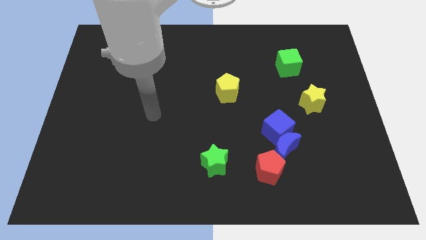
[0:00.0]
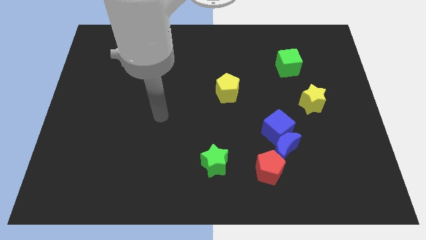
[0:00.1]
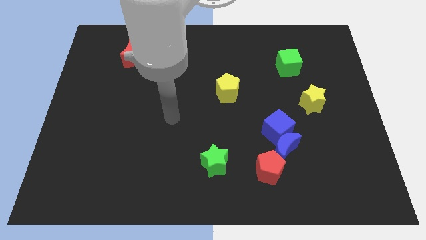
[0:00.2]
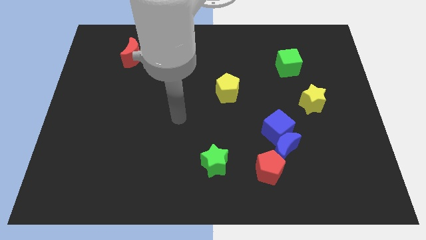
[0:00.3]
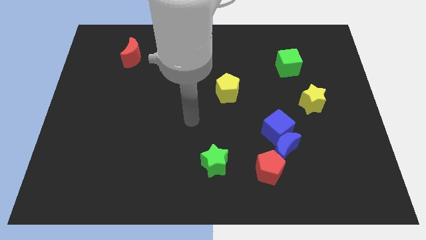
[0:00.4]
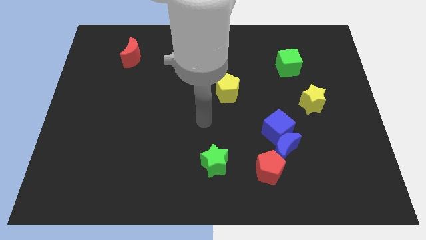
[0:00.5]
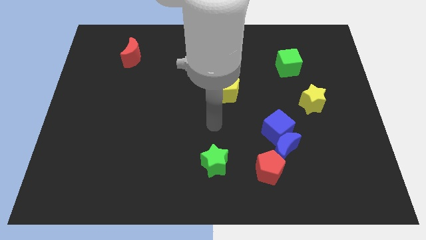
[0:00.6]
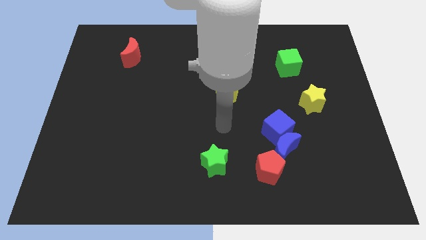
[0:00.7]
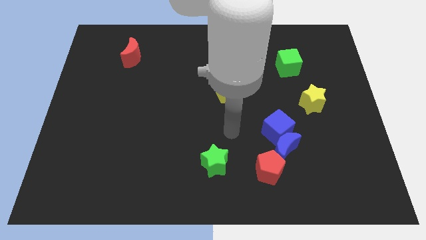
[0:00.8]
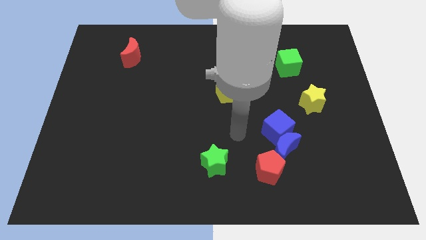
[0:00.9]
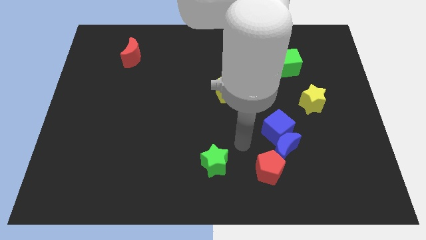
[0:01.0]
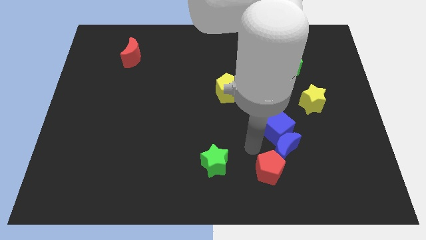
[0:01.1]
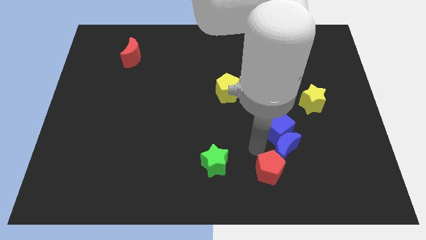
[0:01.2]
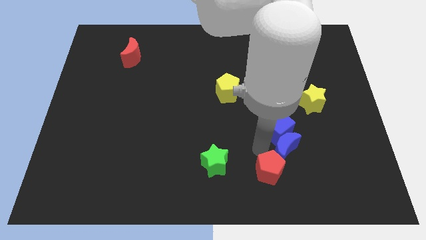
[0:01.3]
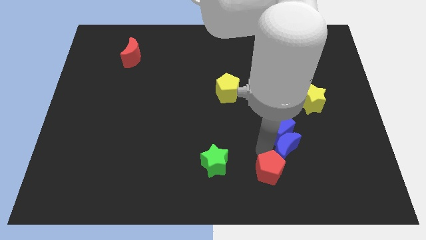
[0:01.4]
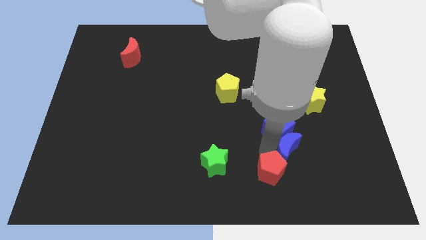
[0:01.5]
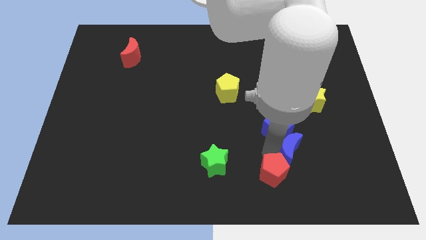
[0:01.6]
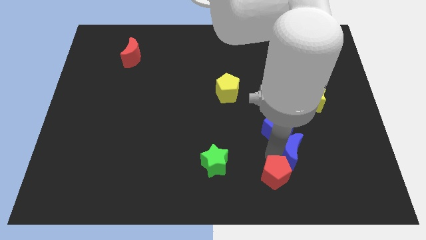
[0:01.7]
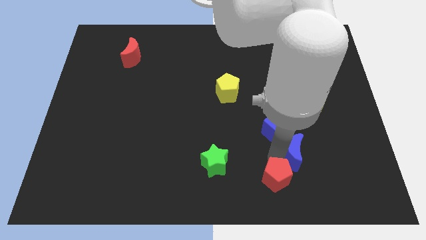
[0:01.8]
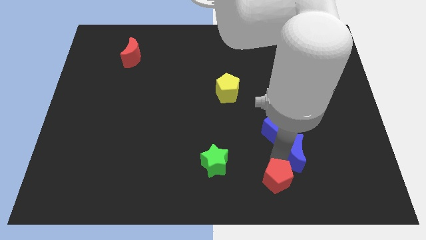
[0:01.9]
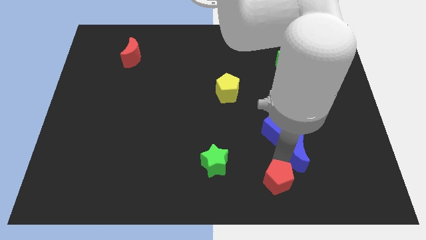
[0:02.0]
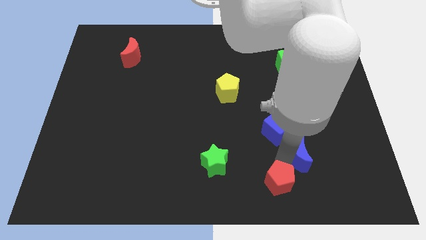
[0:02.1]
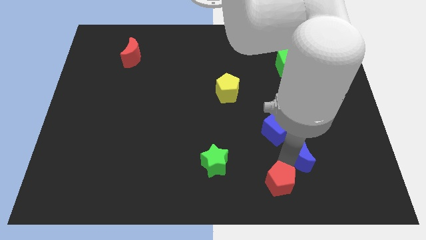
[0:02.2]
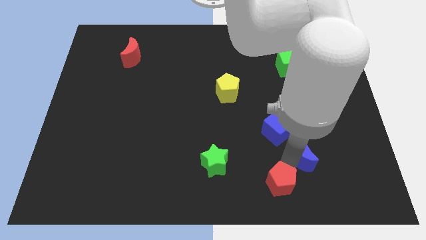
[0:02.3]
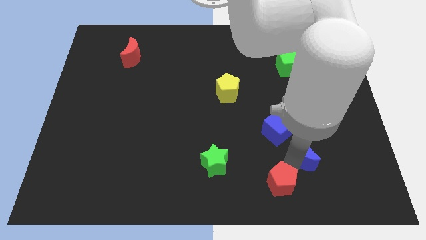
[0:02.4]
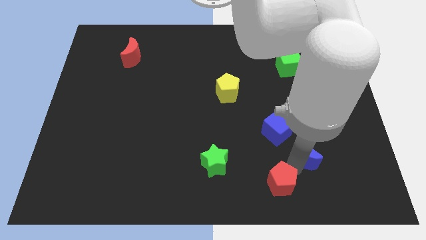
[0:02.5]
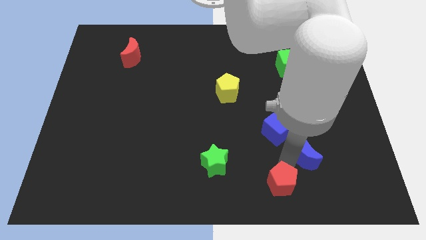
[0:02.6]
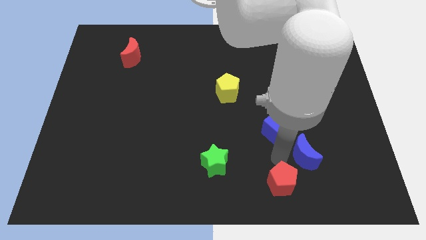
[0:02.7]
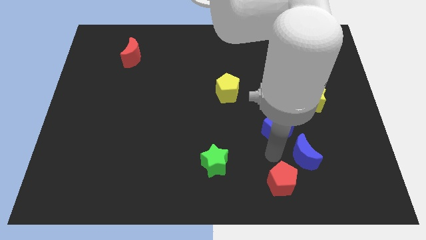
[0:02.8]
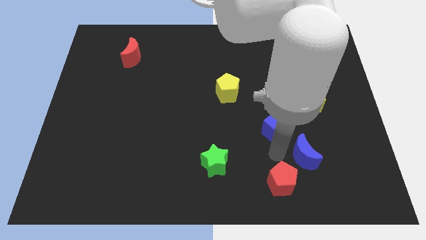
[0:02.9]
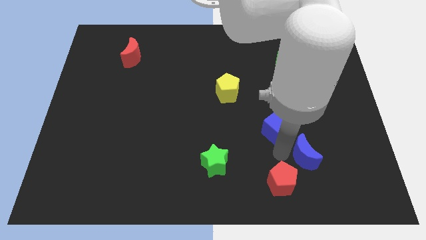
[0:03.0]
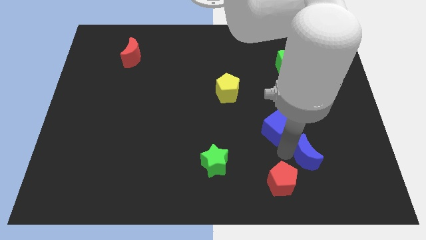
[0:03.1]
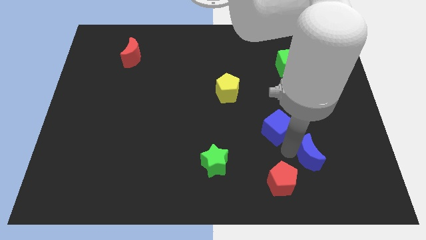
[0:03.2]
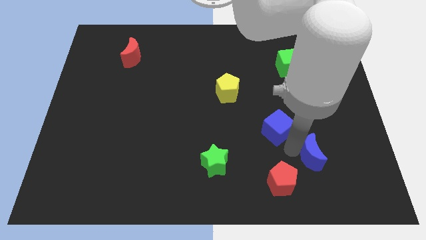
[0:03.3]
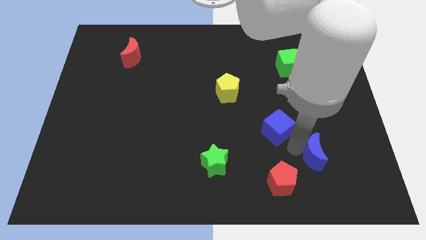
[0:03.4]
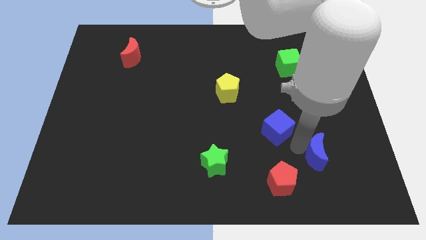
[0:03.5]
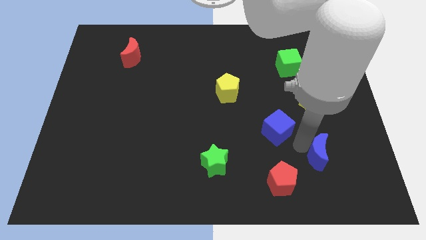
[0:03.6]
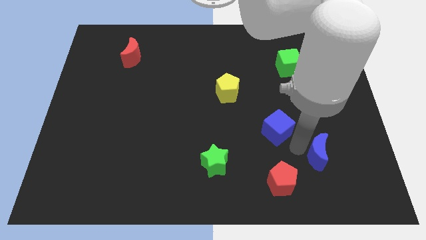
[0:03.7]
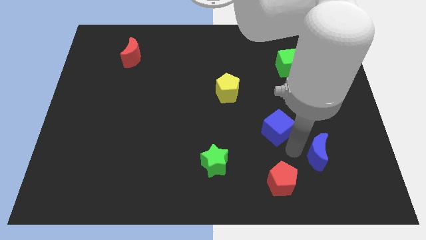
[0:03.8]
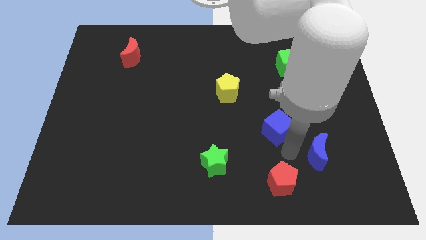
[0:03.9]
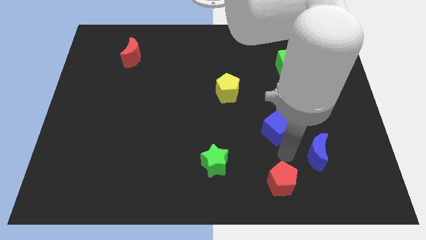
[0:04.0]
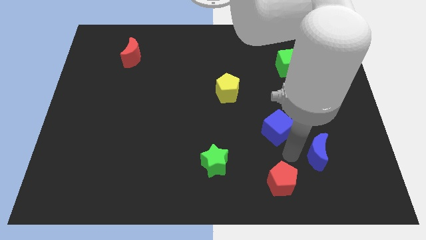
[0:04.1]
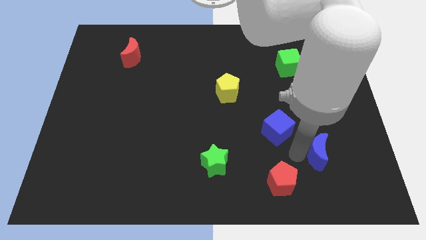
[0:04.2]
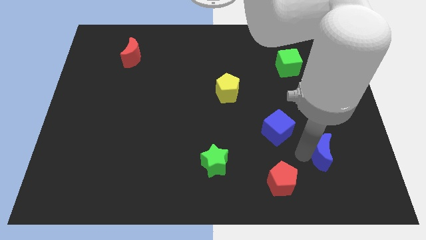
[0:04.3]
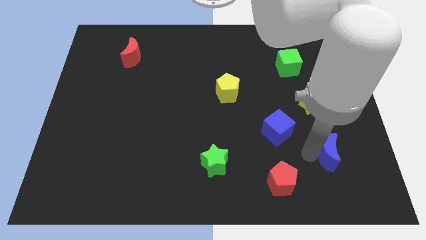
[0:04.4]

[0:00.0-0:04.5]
separate the blue moon from the blue cube and red pentagon

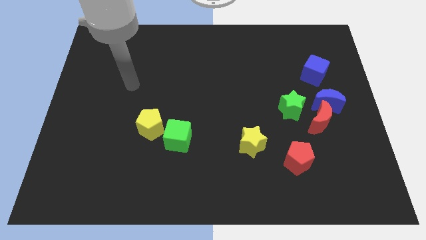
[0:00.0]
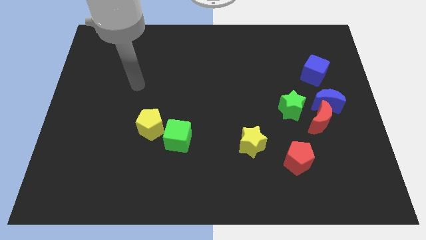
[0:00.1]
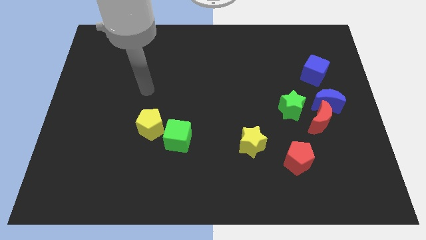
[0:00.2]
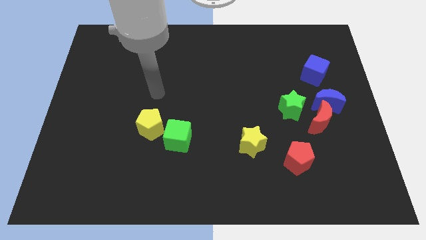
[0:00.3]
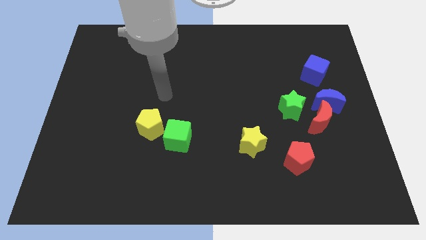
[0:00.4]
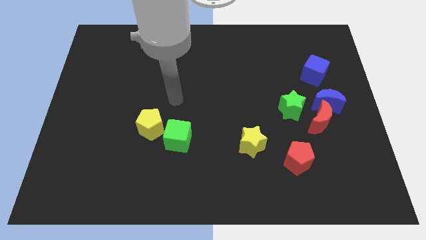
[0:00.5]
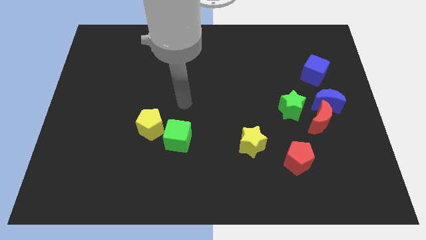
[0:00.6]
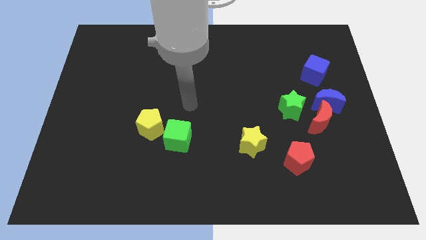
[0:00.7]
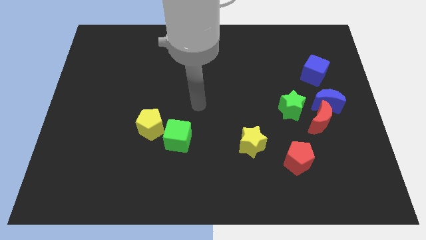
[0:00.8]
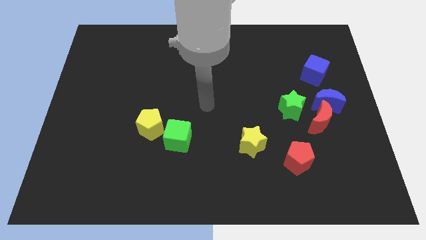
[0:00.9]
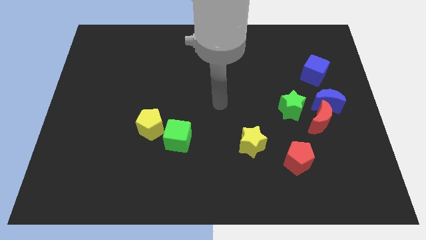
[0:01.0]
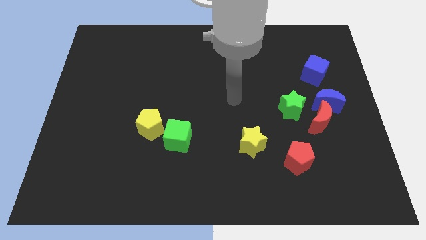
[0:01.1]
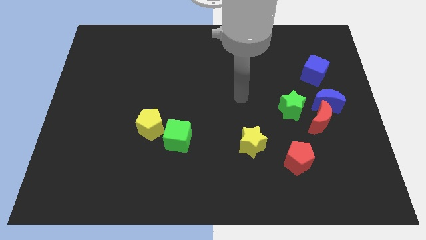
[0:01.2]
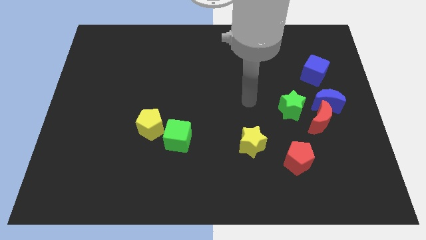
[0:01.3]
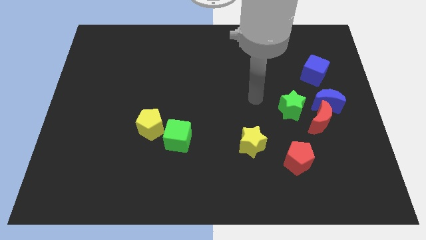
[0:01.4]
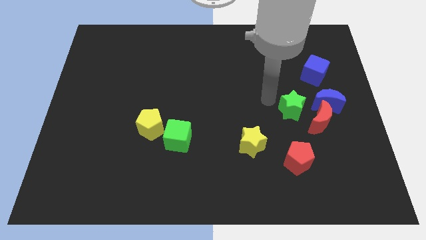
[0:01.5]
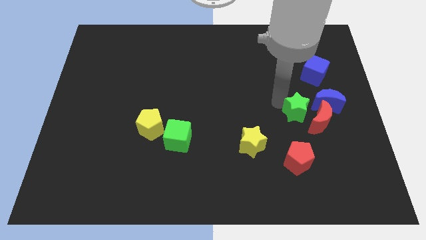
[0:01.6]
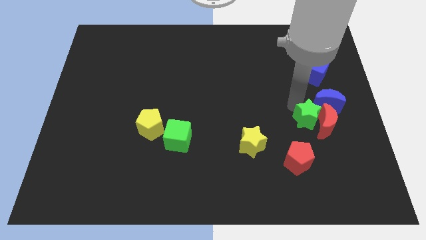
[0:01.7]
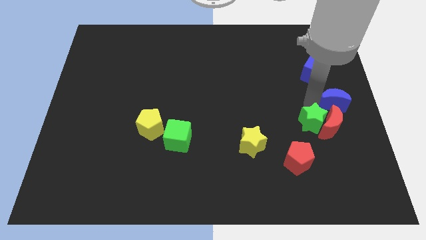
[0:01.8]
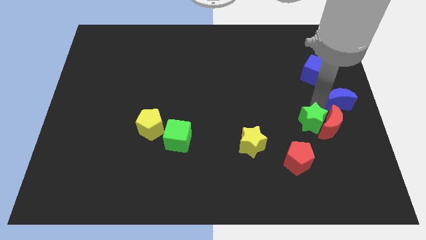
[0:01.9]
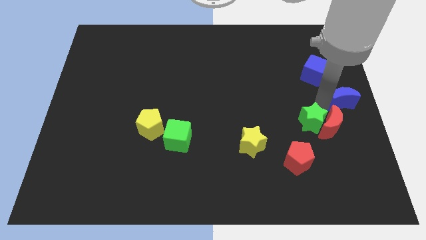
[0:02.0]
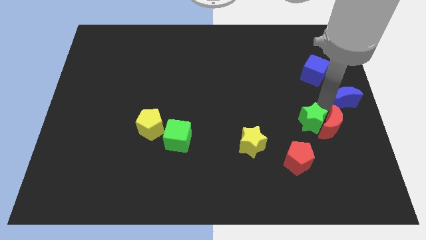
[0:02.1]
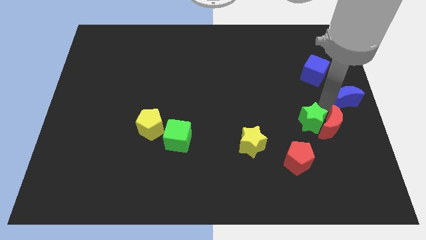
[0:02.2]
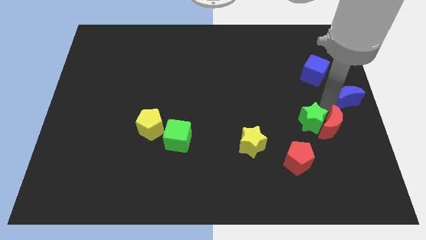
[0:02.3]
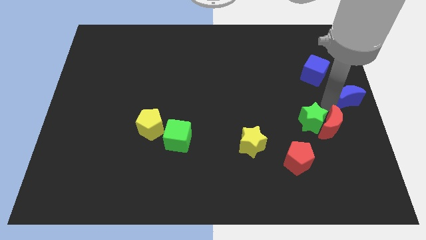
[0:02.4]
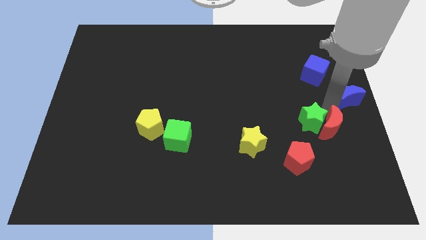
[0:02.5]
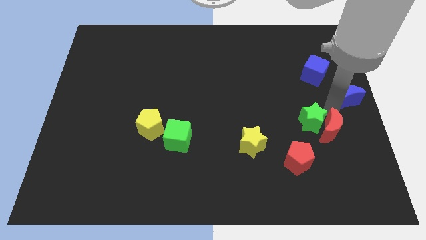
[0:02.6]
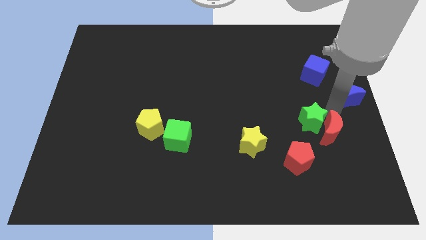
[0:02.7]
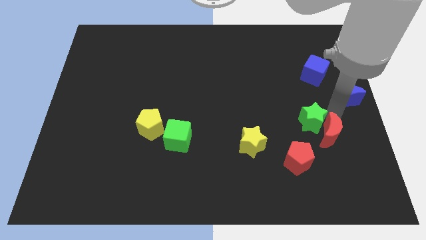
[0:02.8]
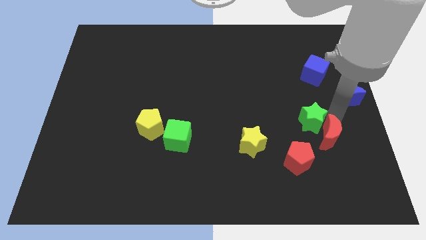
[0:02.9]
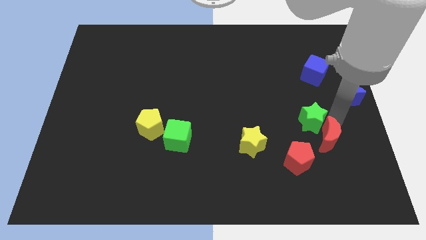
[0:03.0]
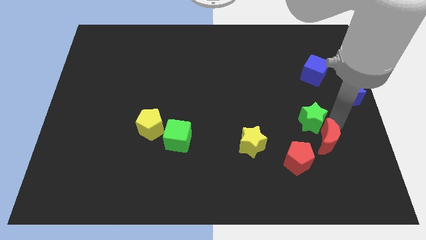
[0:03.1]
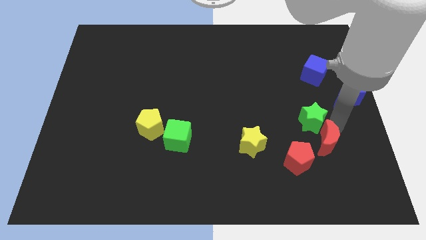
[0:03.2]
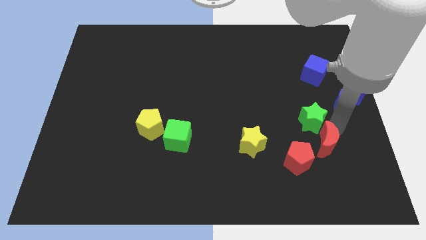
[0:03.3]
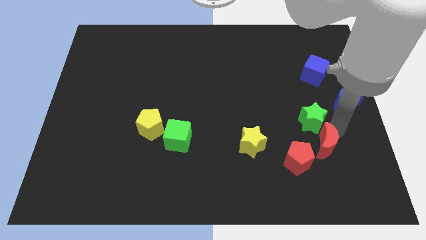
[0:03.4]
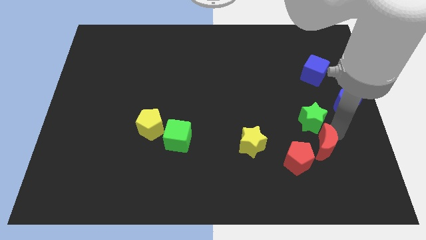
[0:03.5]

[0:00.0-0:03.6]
move the red moon away from the blue moon and green star

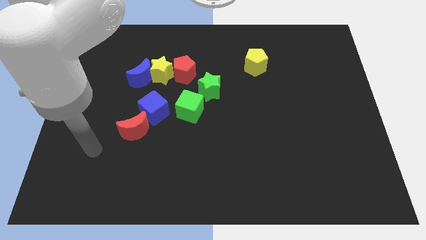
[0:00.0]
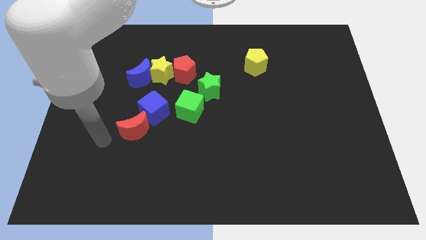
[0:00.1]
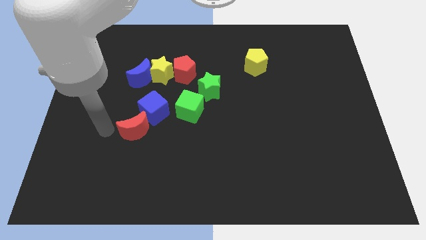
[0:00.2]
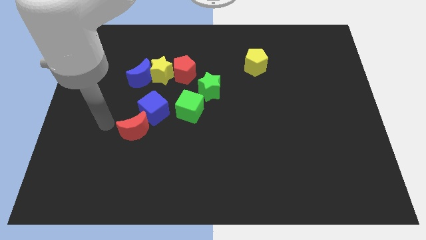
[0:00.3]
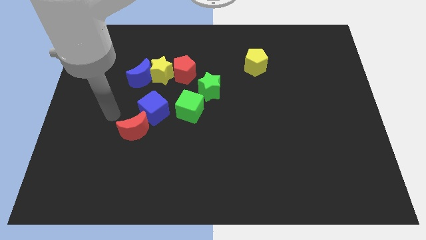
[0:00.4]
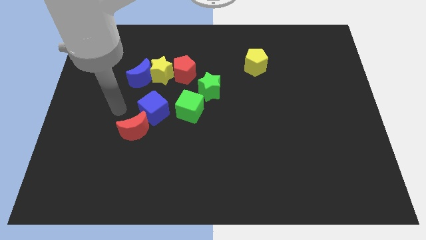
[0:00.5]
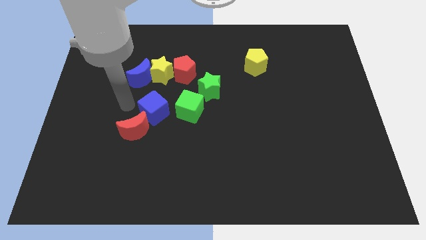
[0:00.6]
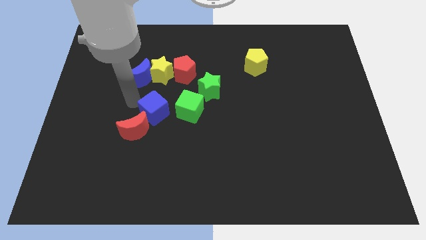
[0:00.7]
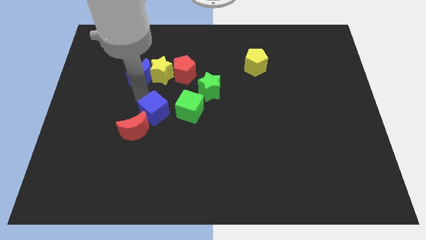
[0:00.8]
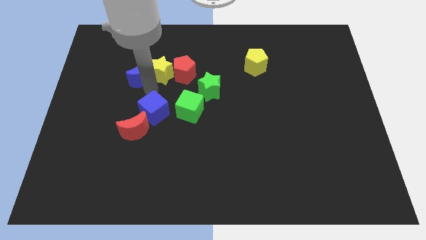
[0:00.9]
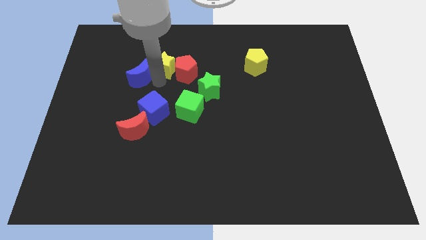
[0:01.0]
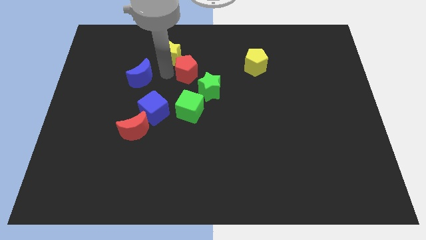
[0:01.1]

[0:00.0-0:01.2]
move the blue moon away from the yellow star

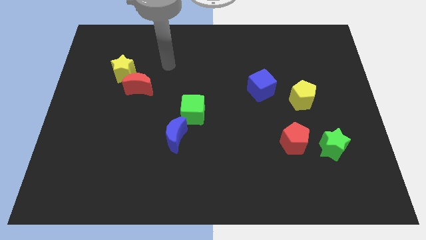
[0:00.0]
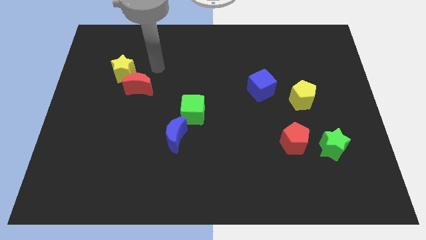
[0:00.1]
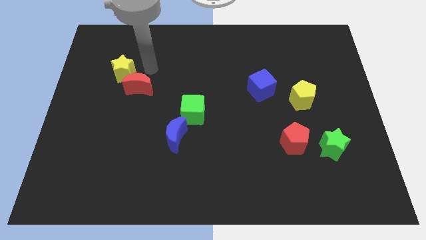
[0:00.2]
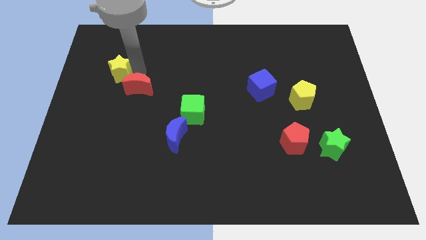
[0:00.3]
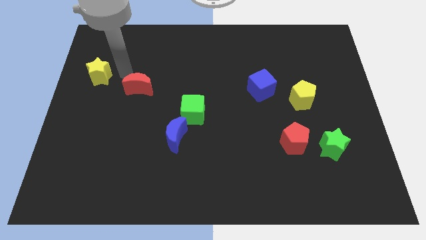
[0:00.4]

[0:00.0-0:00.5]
separate the red moon from the yellow star
